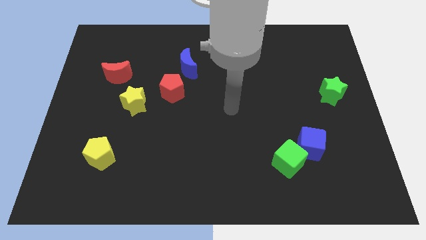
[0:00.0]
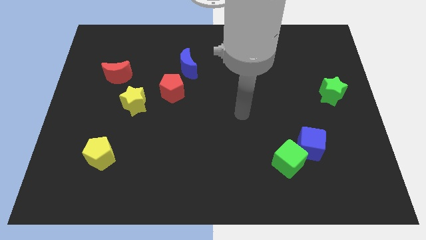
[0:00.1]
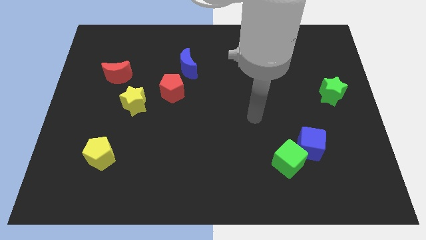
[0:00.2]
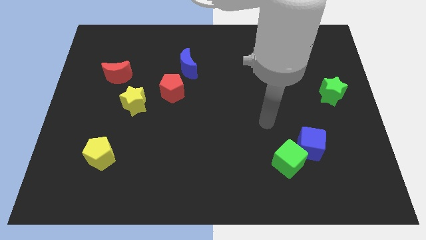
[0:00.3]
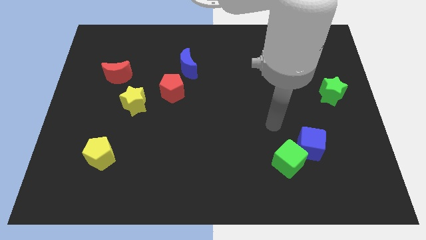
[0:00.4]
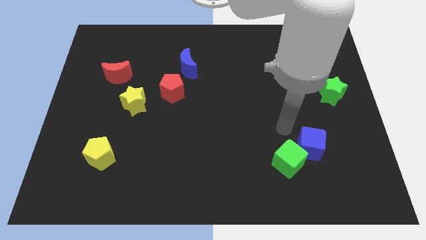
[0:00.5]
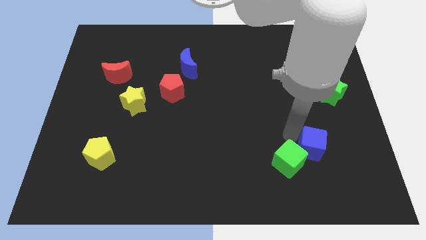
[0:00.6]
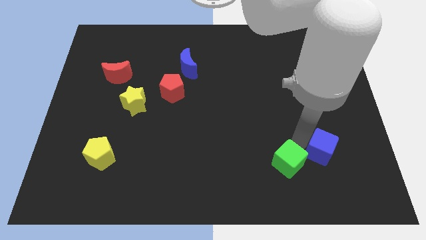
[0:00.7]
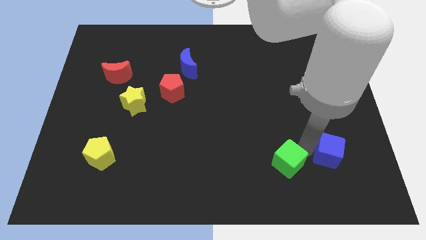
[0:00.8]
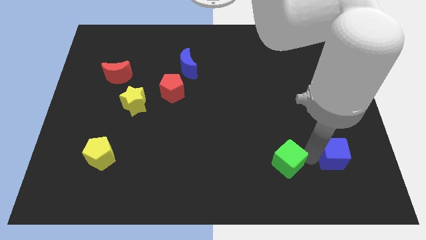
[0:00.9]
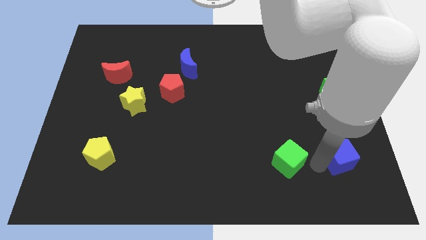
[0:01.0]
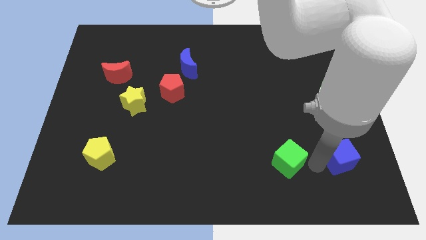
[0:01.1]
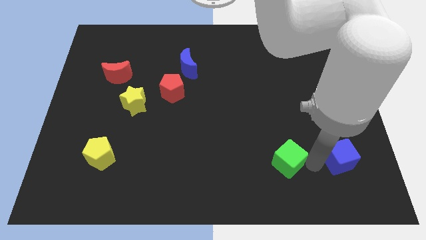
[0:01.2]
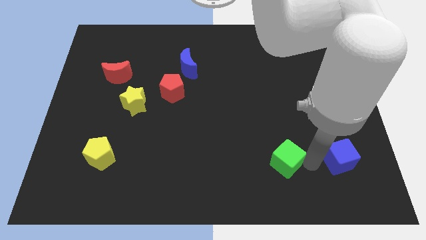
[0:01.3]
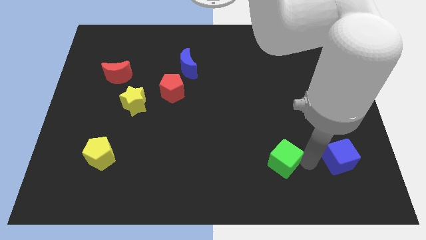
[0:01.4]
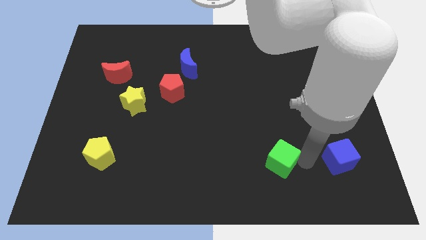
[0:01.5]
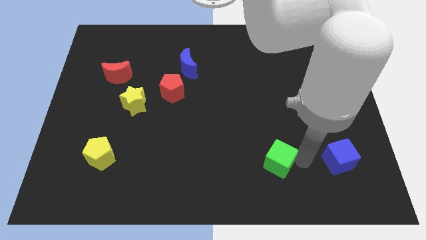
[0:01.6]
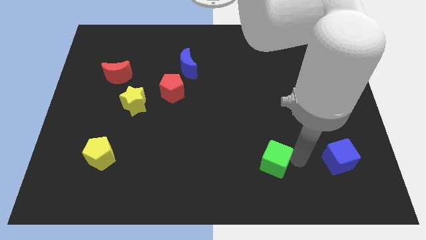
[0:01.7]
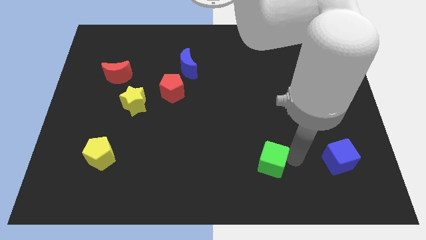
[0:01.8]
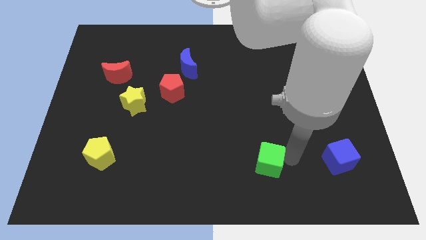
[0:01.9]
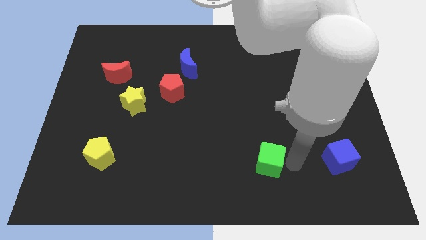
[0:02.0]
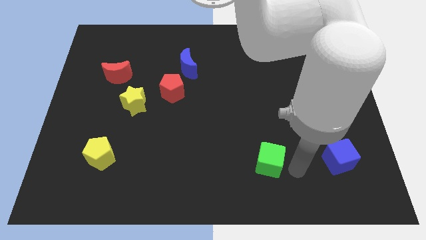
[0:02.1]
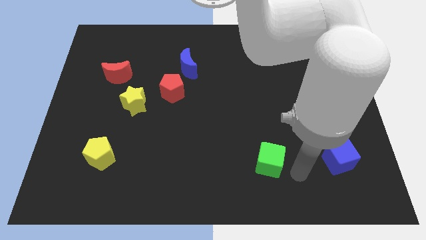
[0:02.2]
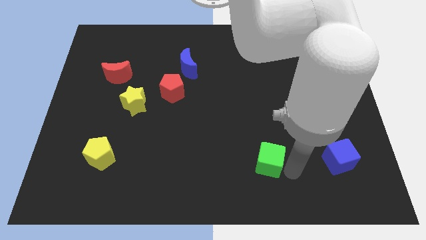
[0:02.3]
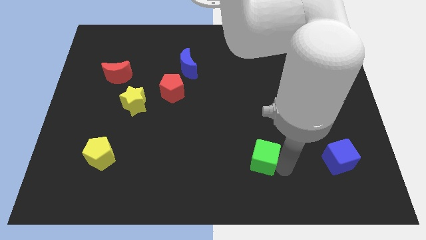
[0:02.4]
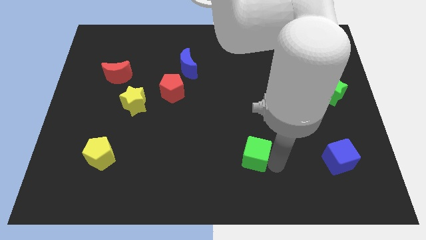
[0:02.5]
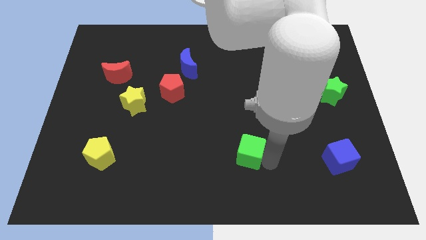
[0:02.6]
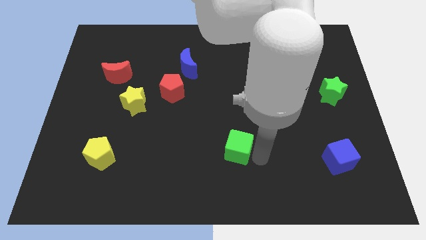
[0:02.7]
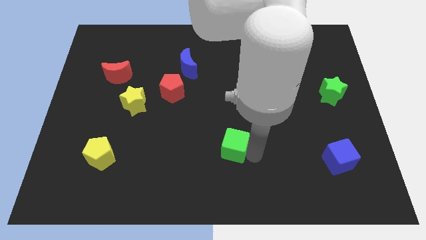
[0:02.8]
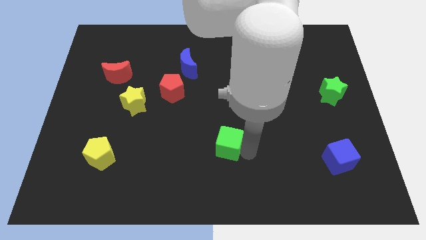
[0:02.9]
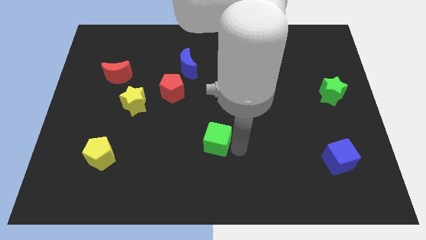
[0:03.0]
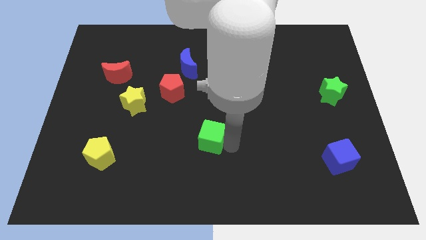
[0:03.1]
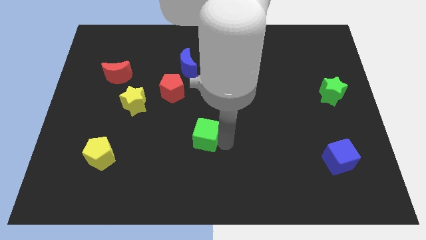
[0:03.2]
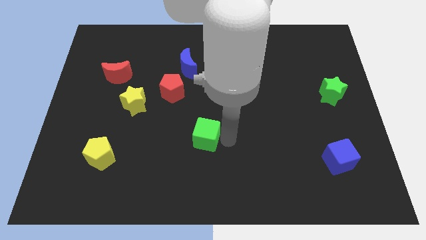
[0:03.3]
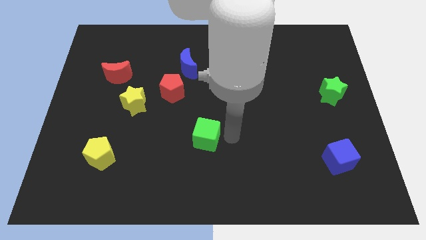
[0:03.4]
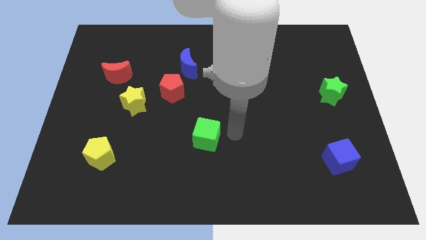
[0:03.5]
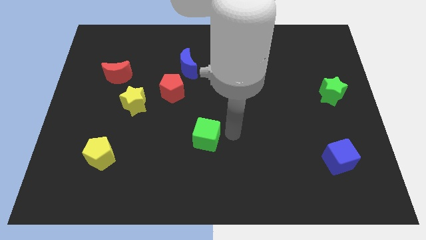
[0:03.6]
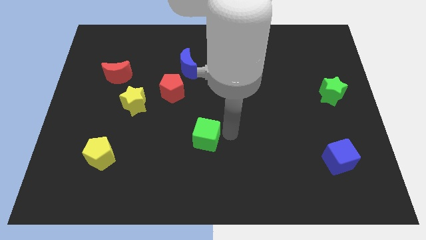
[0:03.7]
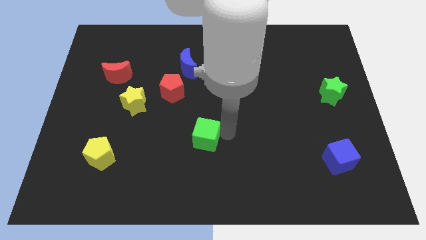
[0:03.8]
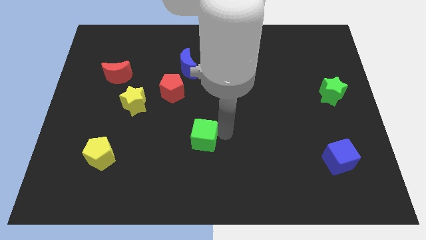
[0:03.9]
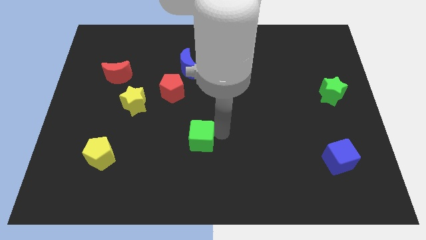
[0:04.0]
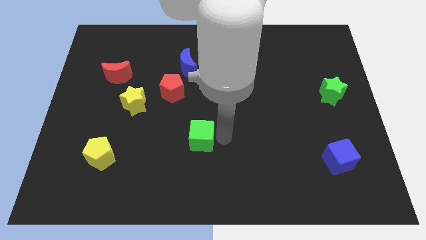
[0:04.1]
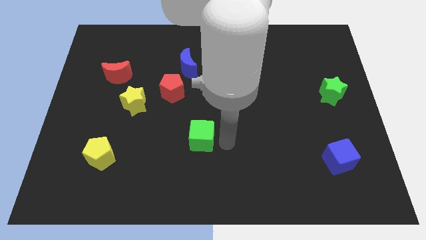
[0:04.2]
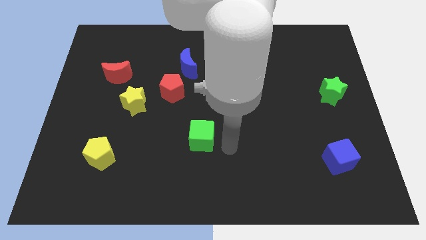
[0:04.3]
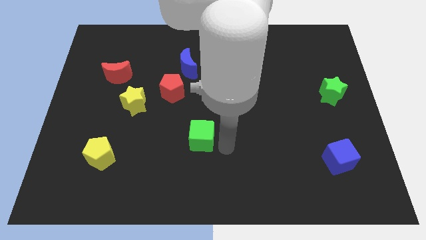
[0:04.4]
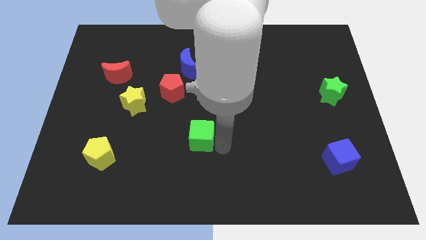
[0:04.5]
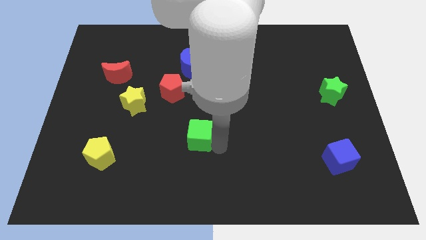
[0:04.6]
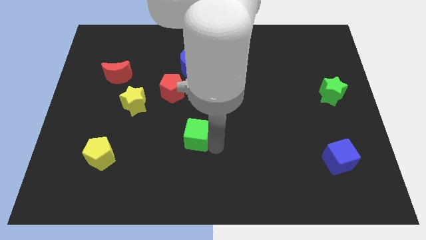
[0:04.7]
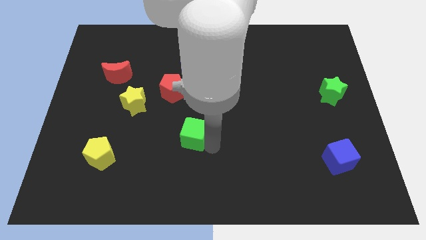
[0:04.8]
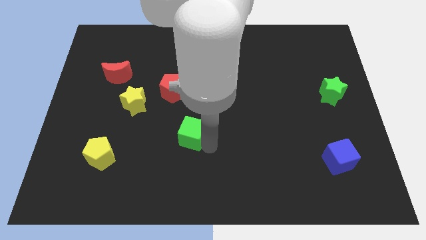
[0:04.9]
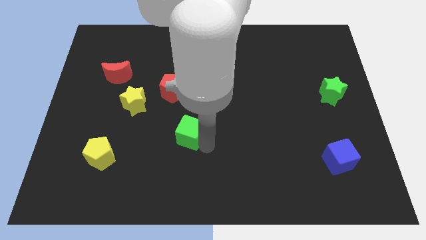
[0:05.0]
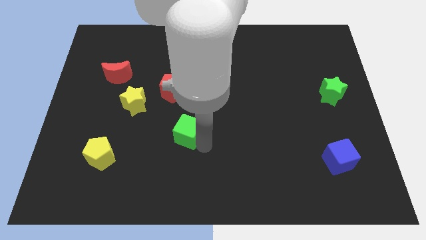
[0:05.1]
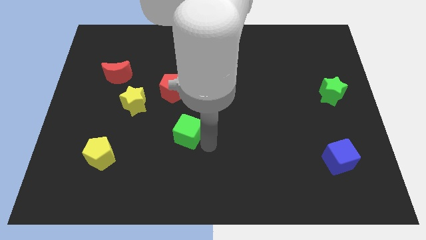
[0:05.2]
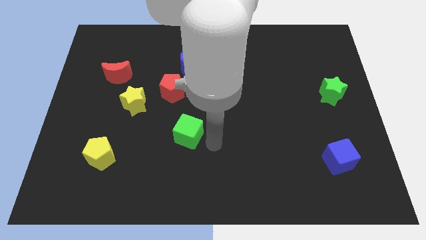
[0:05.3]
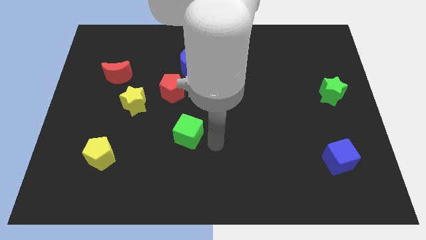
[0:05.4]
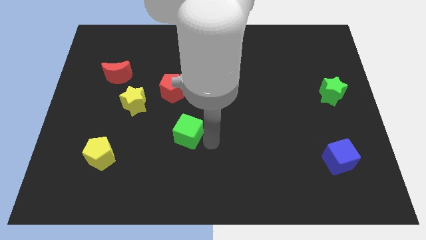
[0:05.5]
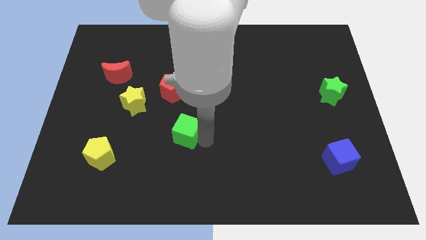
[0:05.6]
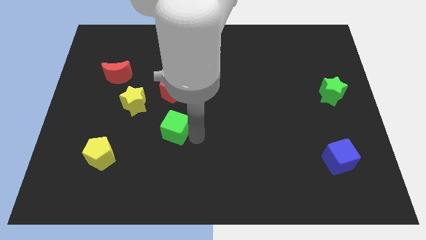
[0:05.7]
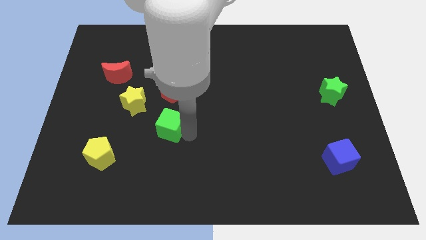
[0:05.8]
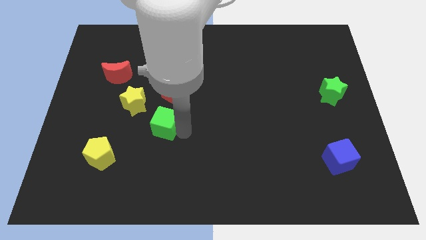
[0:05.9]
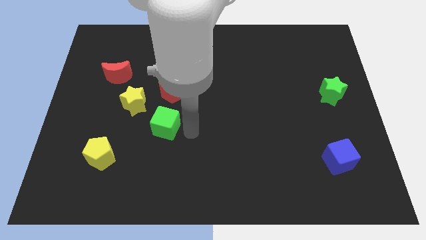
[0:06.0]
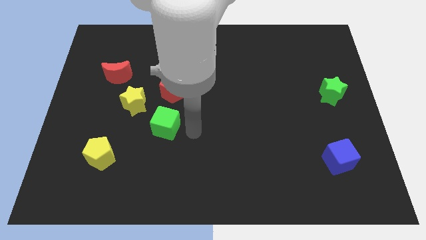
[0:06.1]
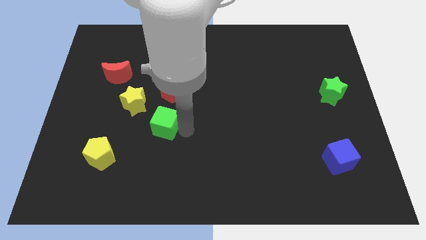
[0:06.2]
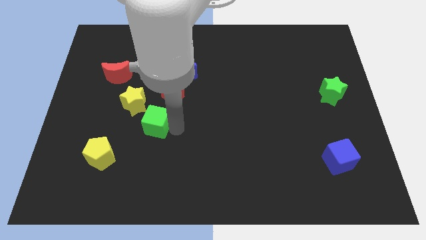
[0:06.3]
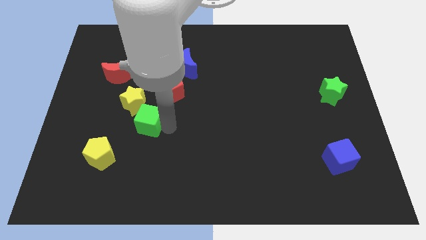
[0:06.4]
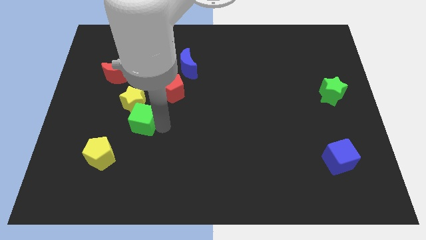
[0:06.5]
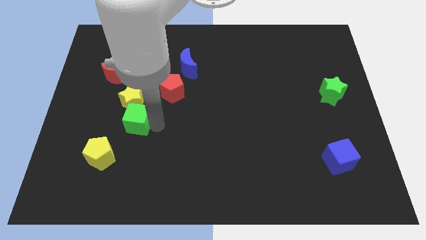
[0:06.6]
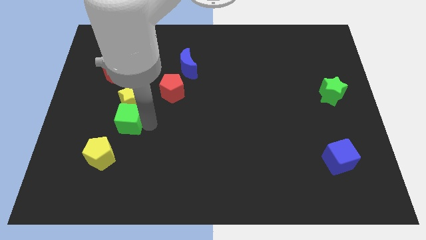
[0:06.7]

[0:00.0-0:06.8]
slide the green cube to the top side of the yellow pentagon

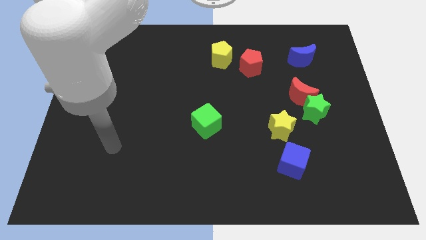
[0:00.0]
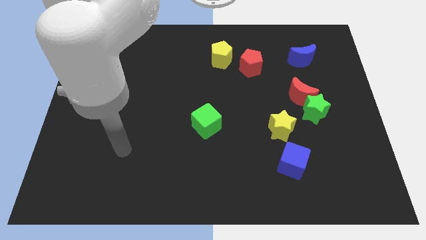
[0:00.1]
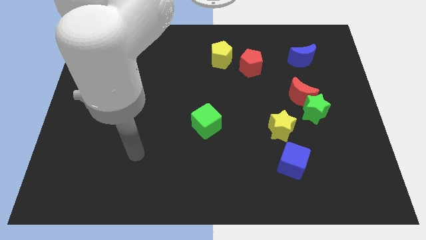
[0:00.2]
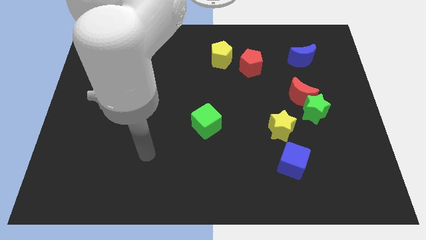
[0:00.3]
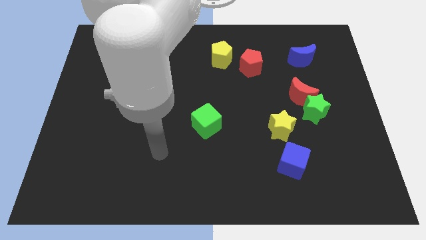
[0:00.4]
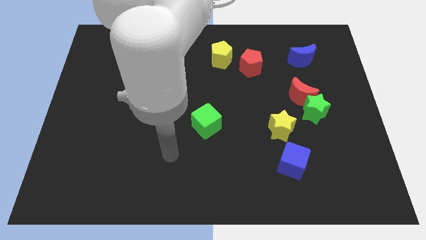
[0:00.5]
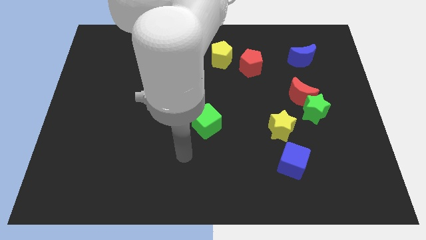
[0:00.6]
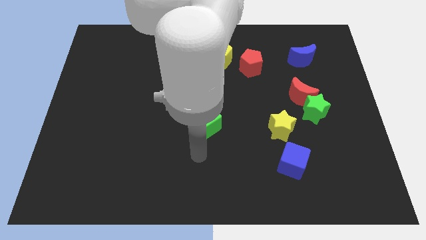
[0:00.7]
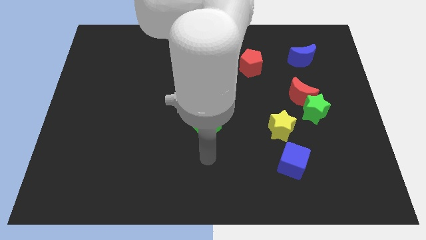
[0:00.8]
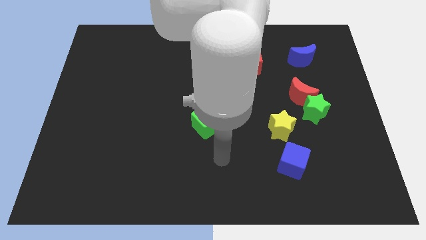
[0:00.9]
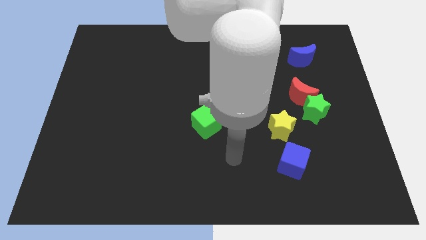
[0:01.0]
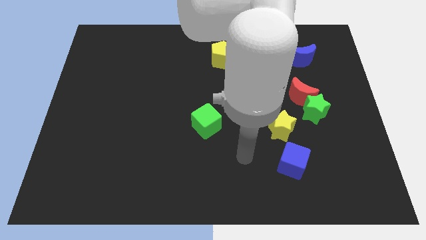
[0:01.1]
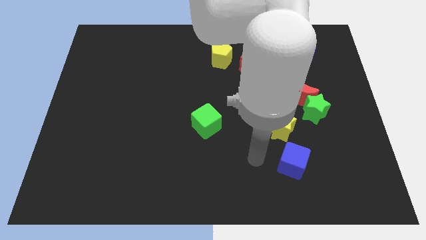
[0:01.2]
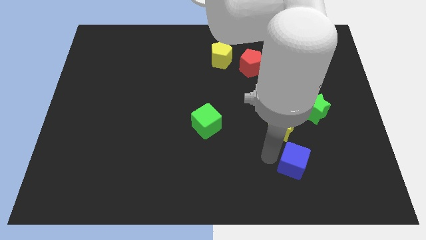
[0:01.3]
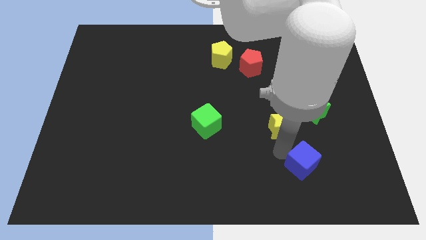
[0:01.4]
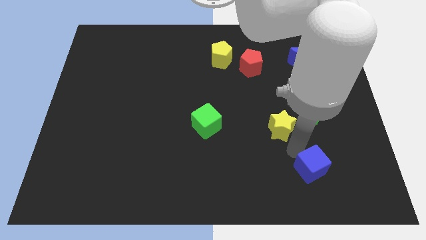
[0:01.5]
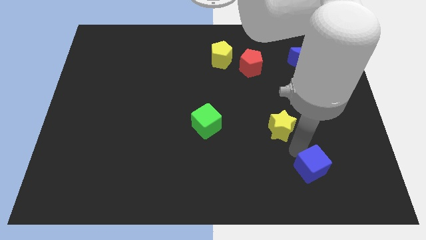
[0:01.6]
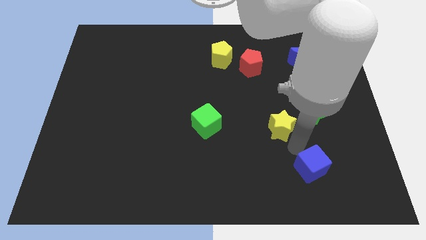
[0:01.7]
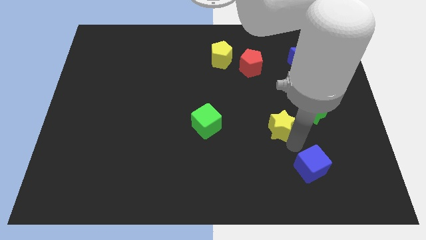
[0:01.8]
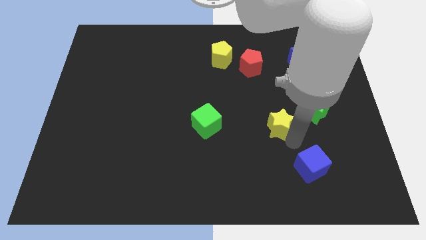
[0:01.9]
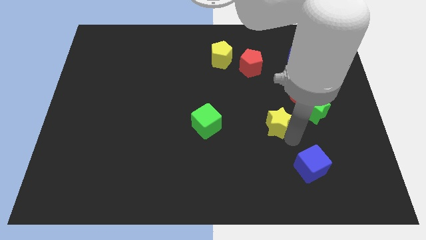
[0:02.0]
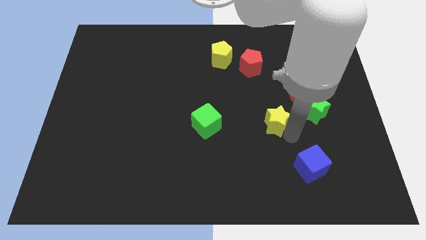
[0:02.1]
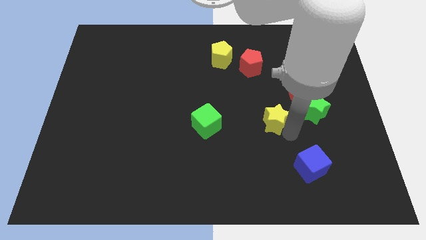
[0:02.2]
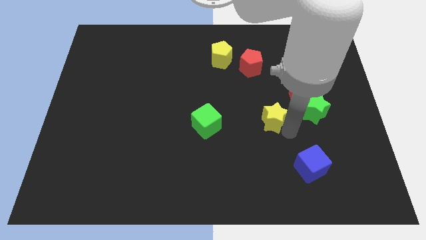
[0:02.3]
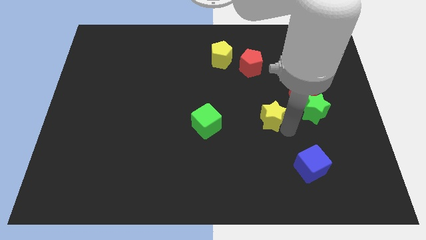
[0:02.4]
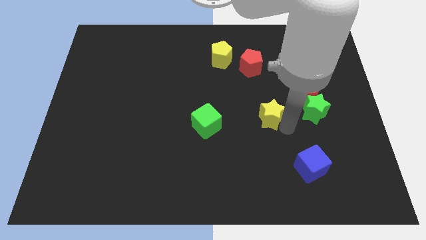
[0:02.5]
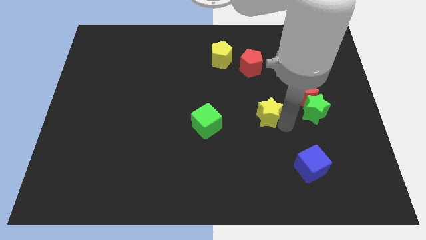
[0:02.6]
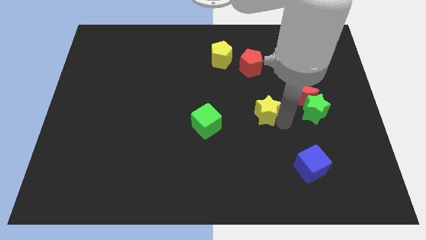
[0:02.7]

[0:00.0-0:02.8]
push the yellow star just left of the red moon
